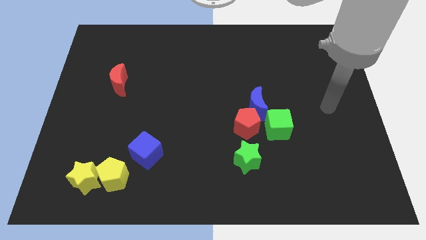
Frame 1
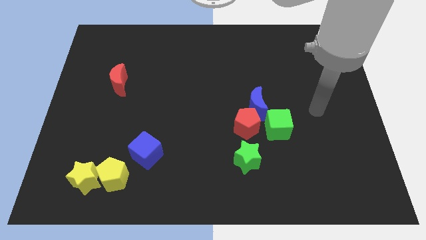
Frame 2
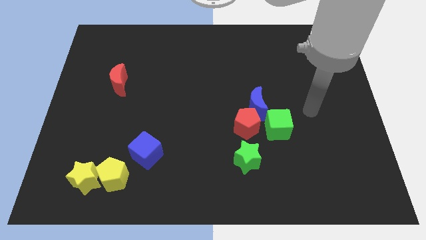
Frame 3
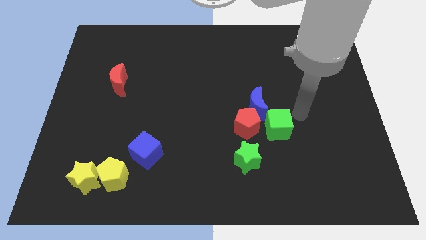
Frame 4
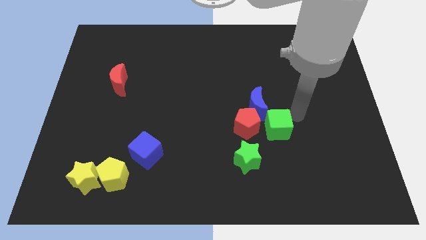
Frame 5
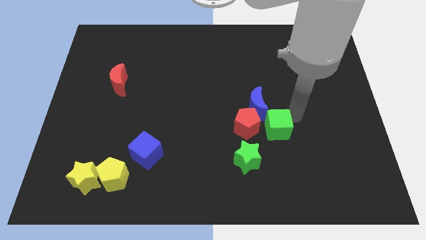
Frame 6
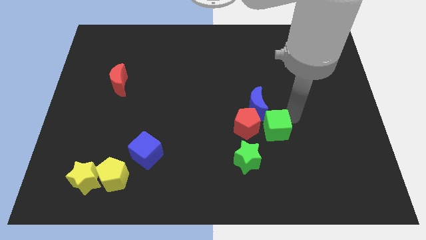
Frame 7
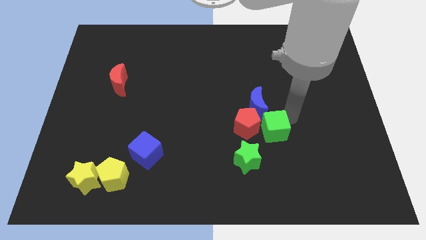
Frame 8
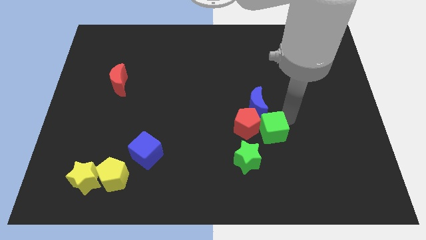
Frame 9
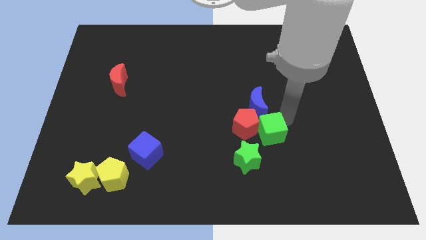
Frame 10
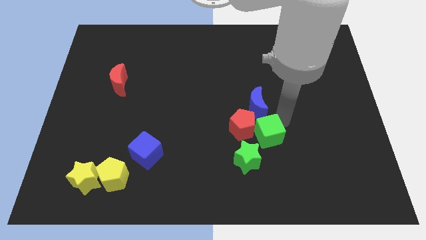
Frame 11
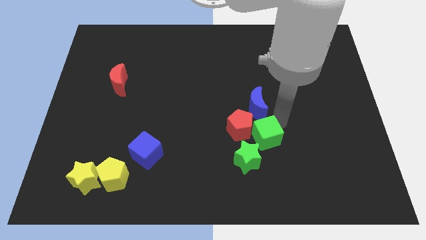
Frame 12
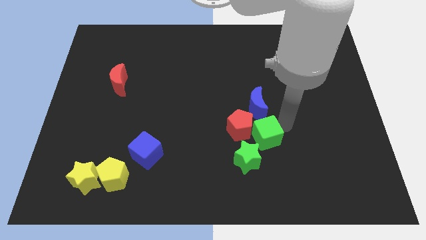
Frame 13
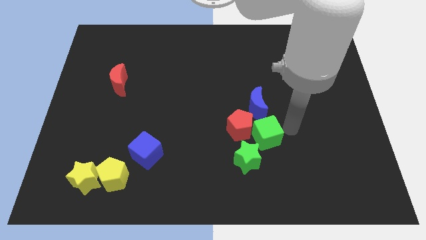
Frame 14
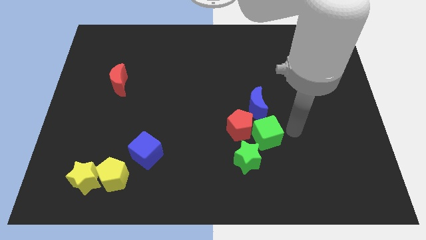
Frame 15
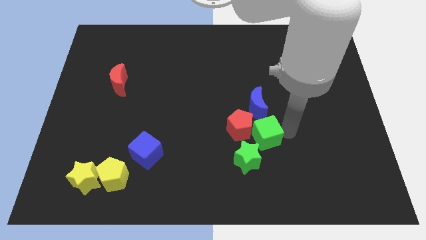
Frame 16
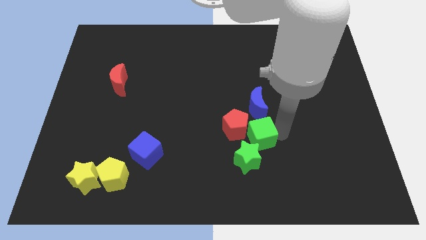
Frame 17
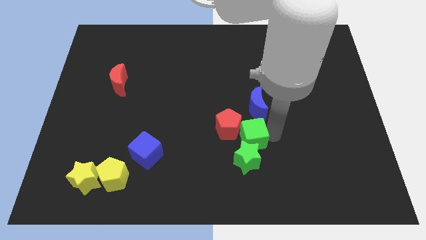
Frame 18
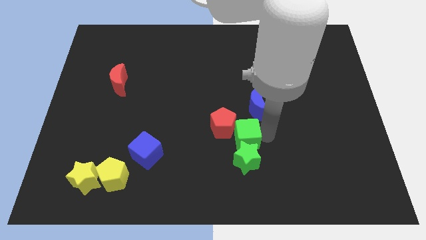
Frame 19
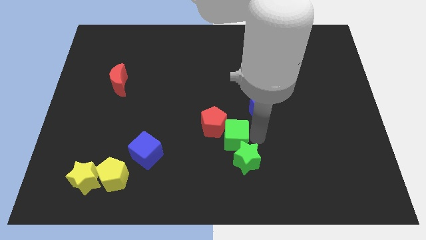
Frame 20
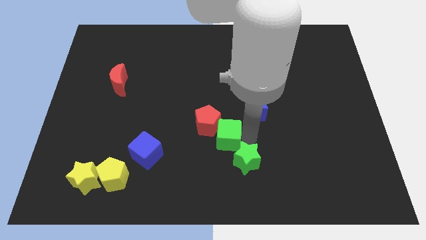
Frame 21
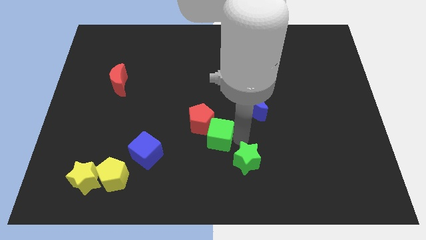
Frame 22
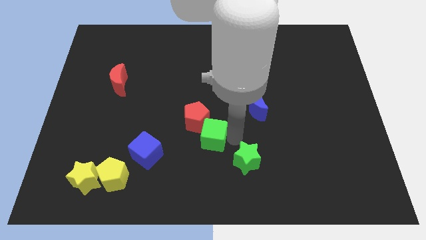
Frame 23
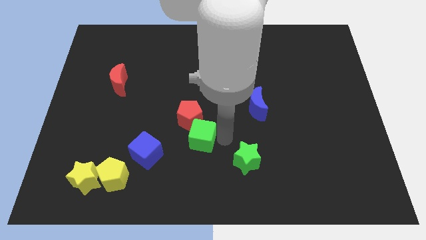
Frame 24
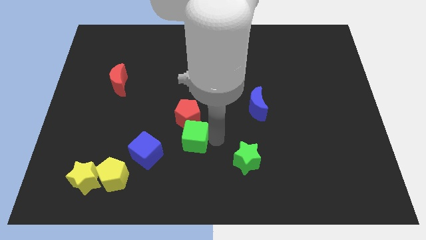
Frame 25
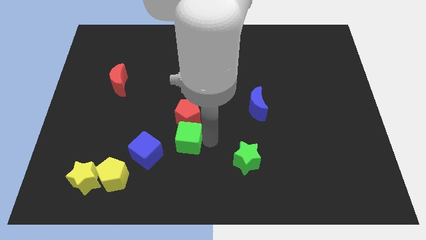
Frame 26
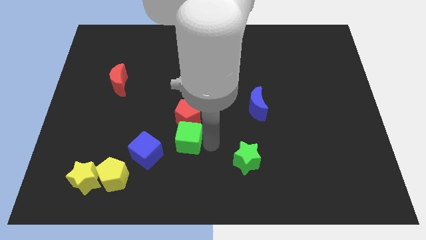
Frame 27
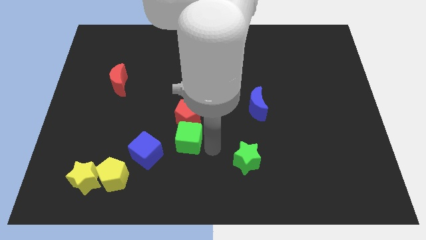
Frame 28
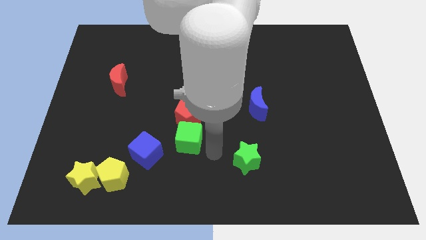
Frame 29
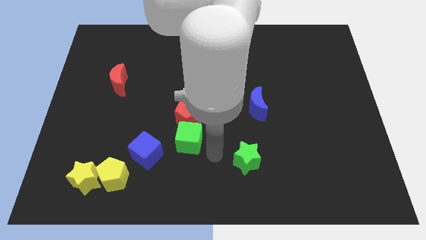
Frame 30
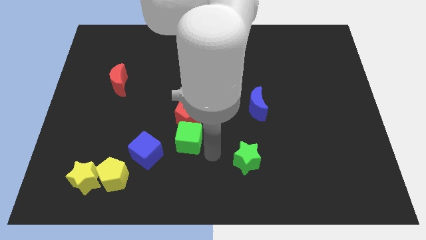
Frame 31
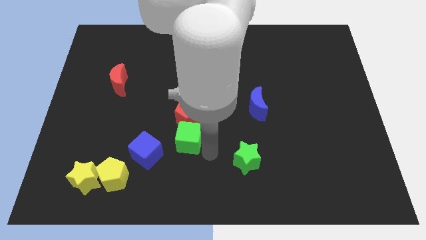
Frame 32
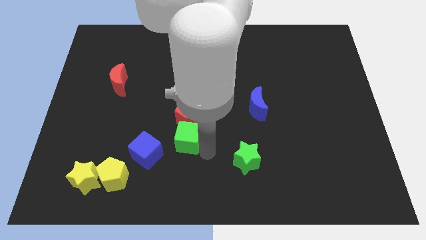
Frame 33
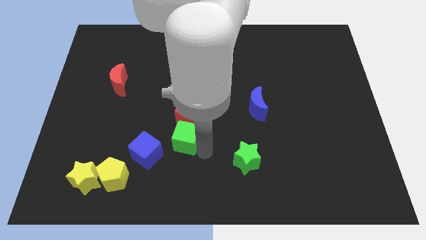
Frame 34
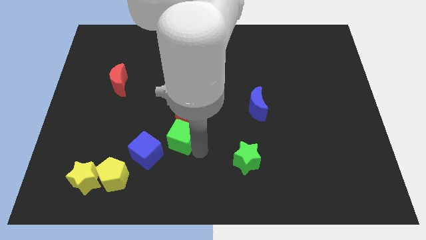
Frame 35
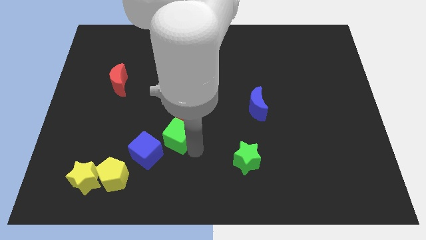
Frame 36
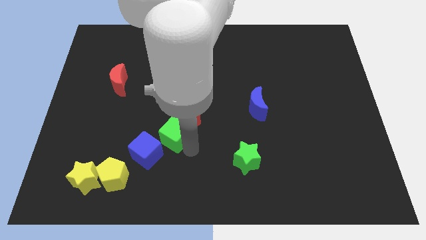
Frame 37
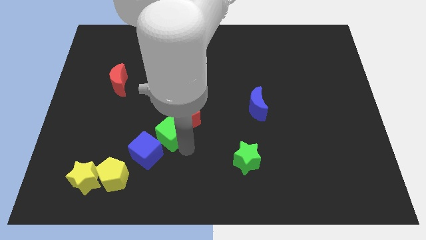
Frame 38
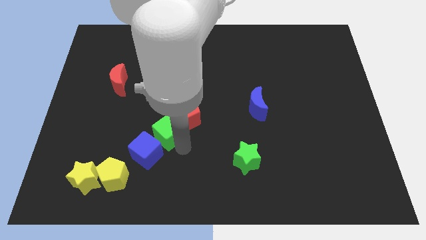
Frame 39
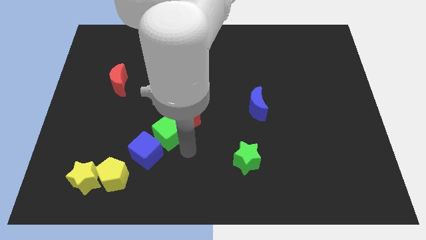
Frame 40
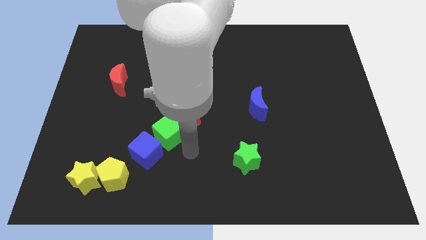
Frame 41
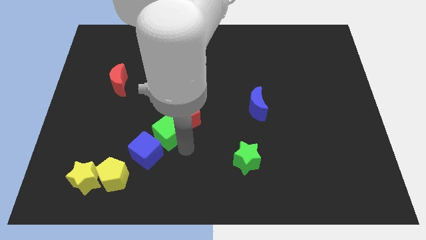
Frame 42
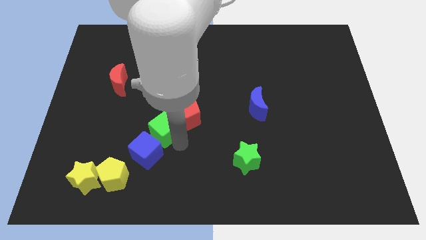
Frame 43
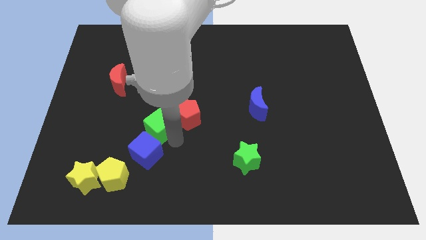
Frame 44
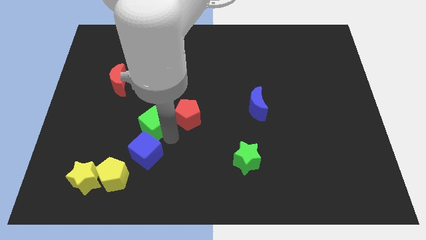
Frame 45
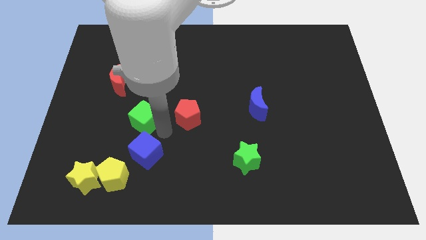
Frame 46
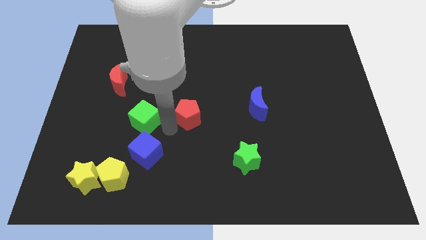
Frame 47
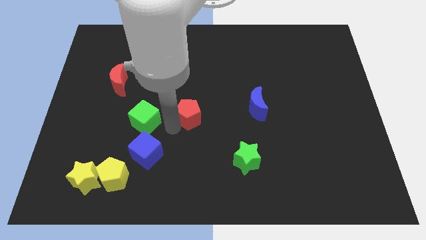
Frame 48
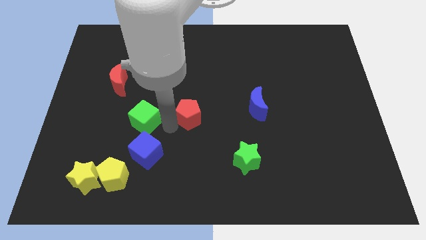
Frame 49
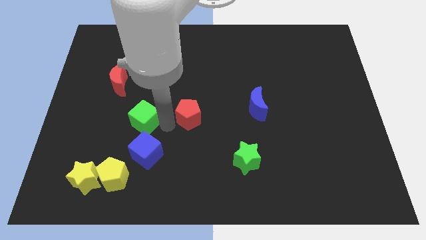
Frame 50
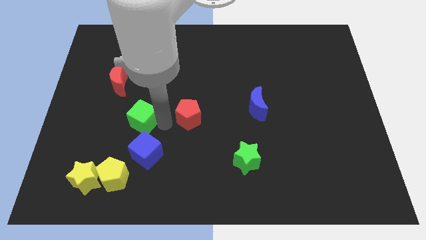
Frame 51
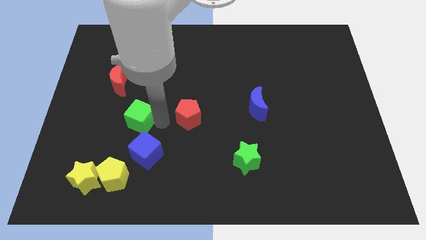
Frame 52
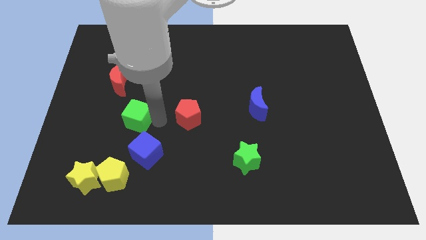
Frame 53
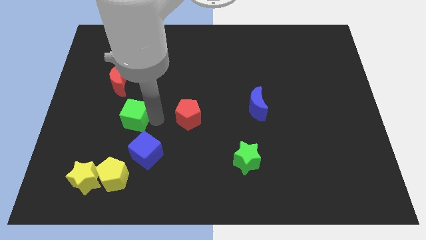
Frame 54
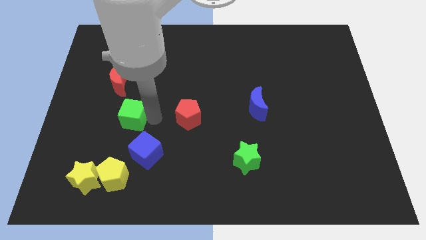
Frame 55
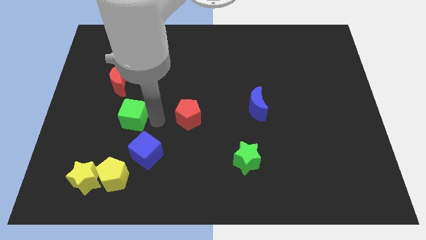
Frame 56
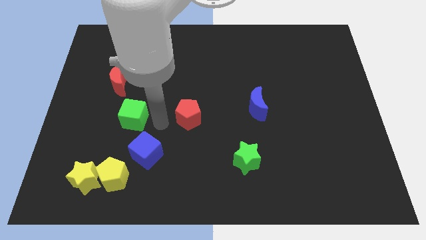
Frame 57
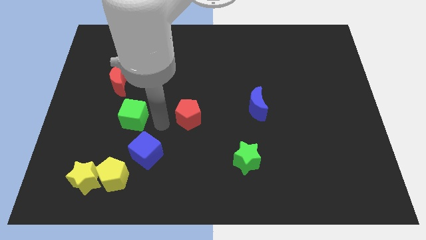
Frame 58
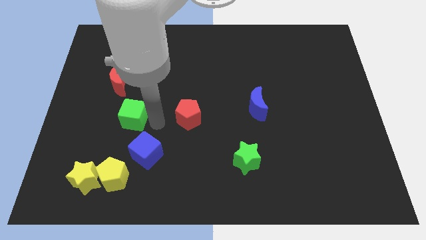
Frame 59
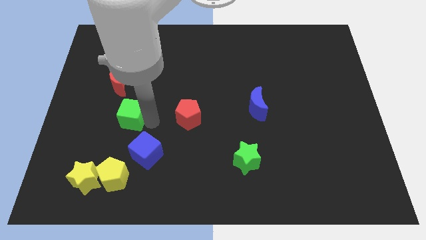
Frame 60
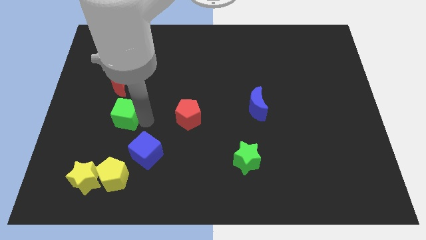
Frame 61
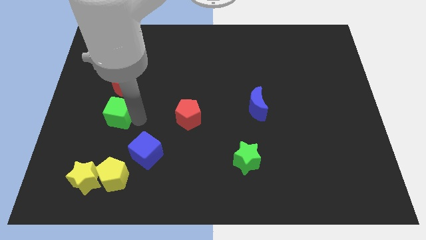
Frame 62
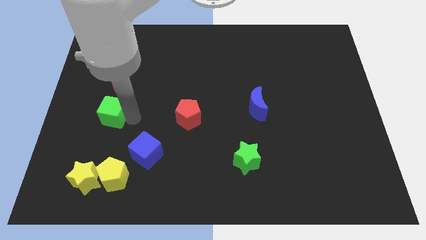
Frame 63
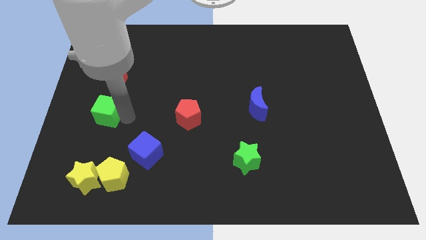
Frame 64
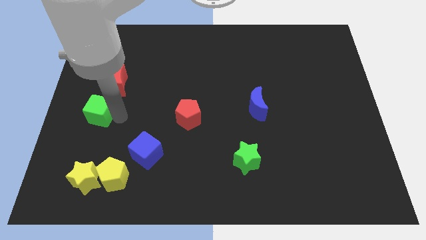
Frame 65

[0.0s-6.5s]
push the green cube to the left side of the board

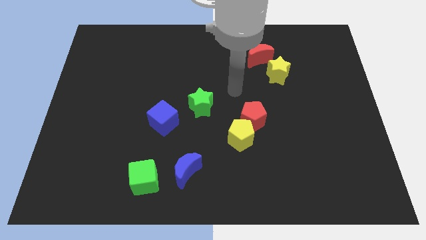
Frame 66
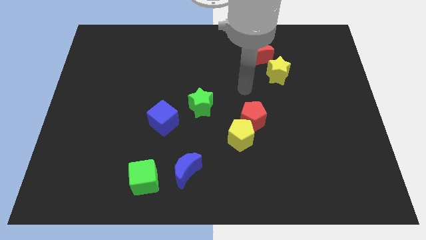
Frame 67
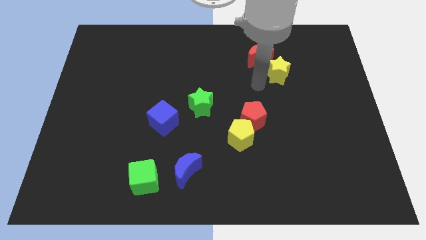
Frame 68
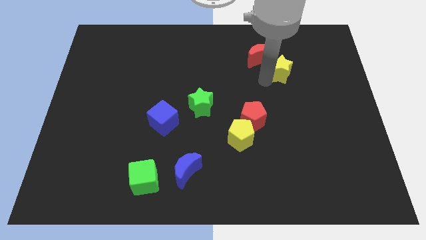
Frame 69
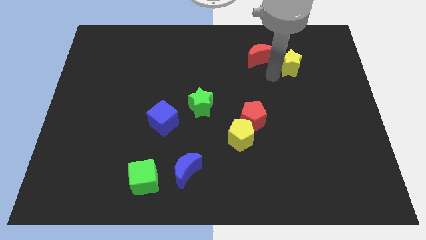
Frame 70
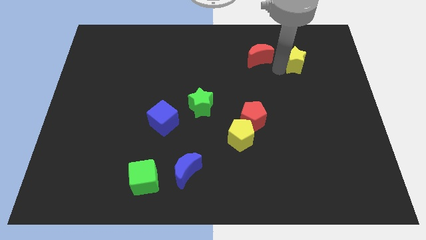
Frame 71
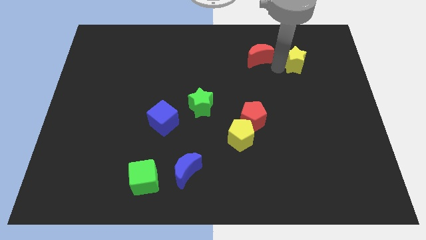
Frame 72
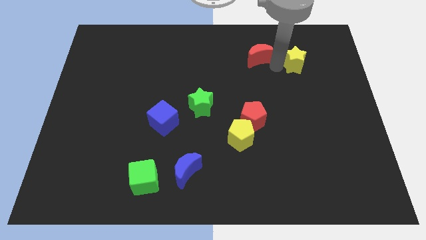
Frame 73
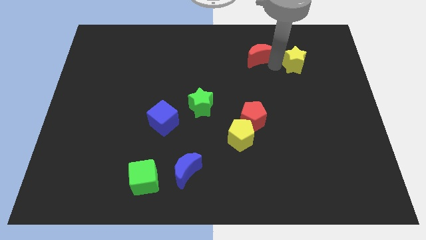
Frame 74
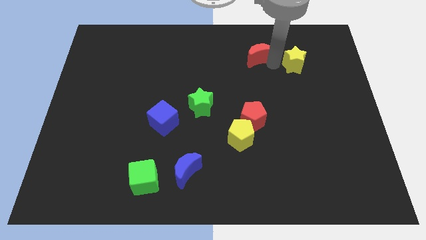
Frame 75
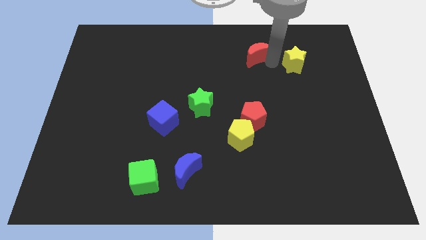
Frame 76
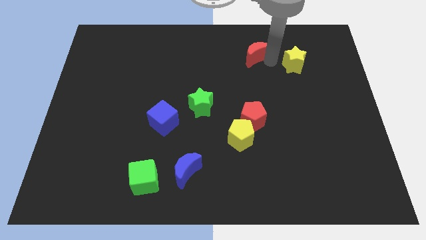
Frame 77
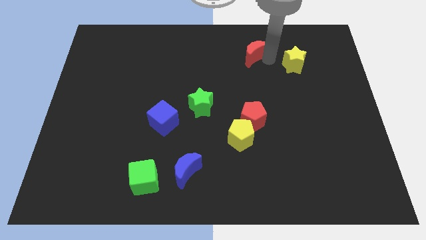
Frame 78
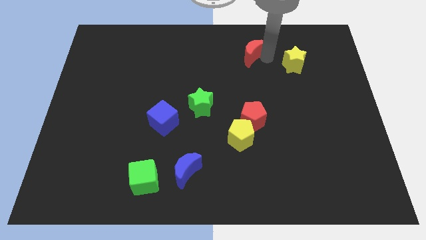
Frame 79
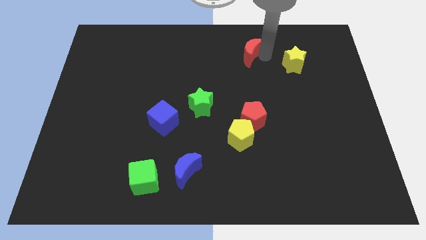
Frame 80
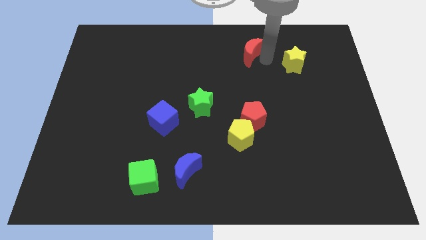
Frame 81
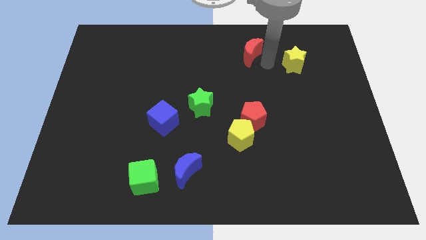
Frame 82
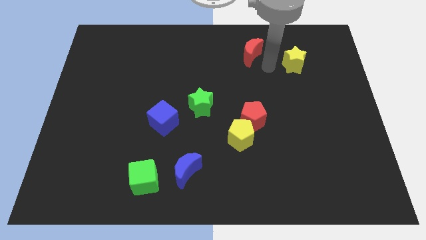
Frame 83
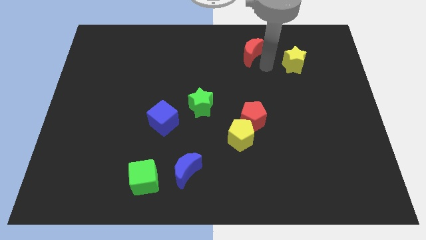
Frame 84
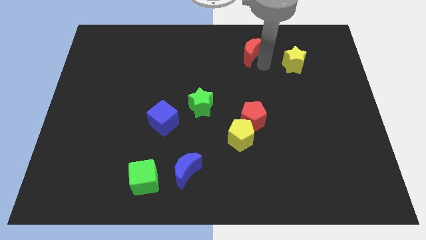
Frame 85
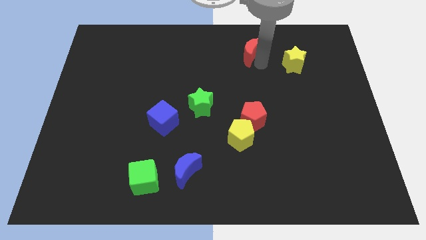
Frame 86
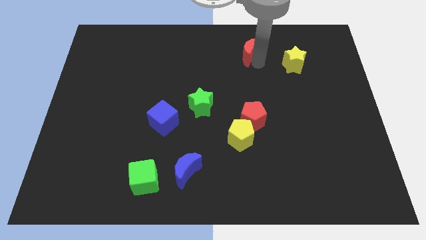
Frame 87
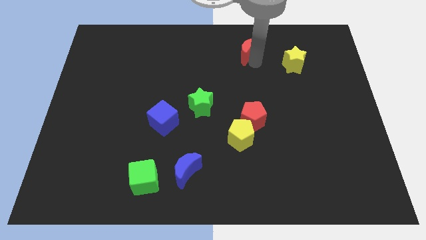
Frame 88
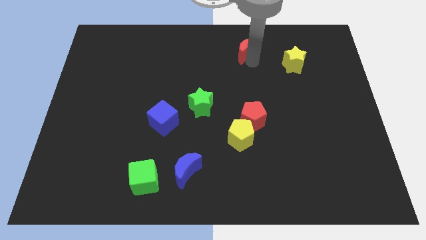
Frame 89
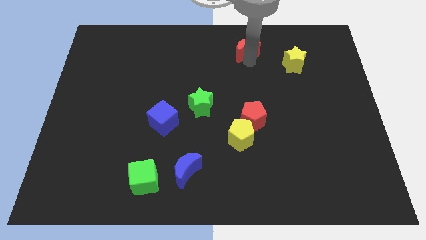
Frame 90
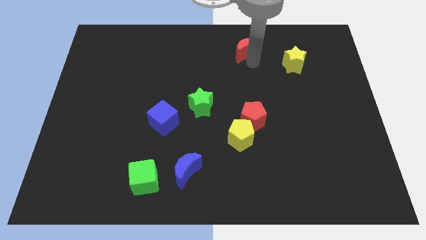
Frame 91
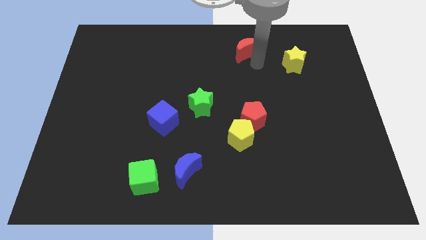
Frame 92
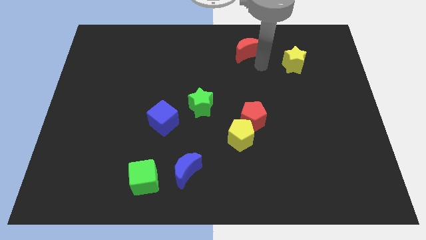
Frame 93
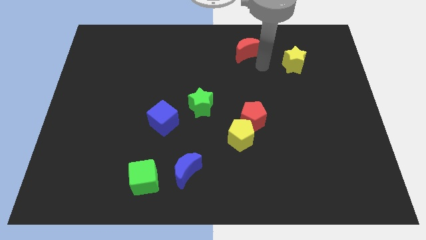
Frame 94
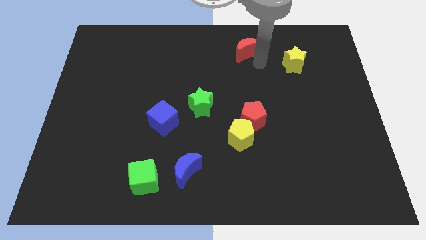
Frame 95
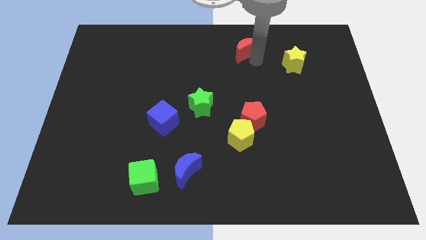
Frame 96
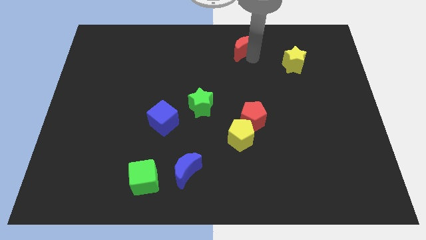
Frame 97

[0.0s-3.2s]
slide the red moon to the top side
